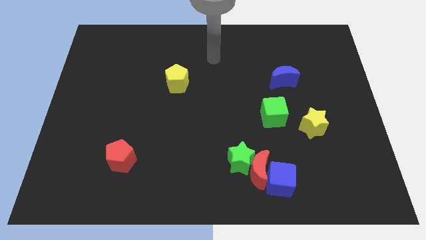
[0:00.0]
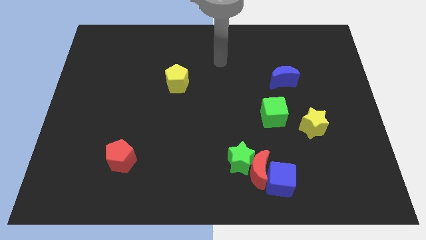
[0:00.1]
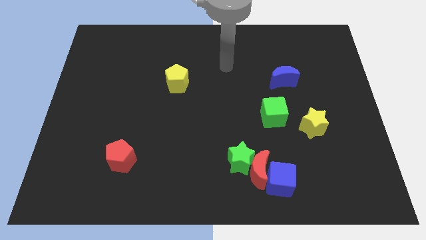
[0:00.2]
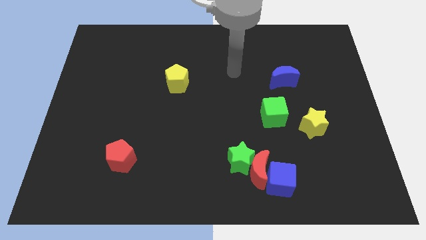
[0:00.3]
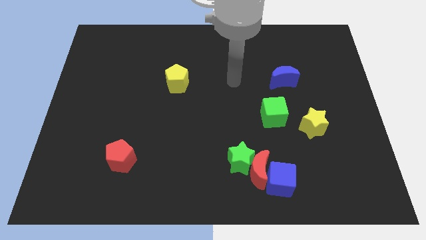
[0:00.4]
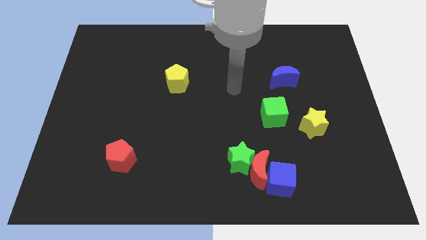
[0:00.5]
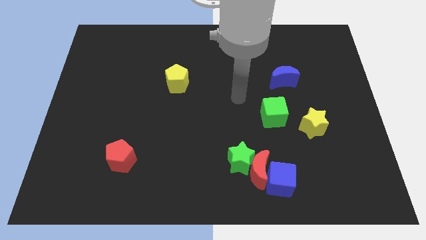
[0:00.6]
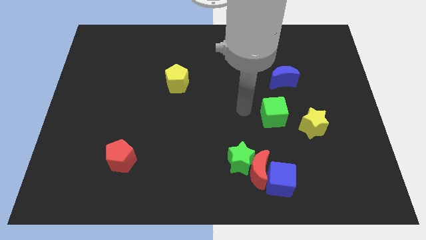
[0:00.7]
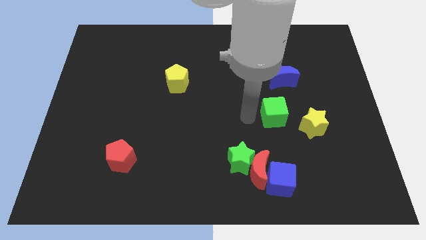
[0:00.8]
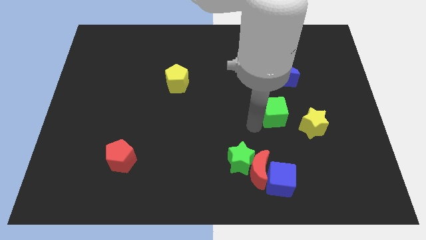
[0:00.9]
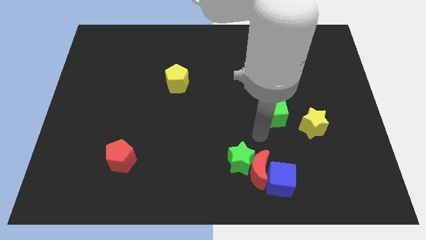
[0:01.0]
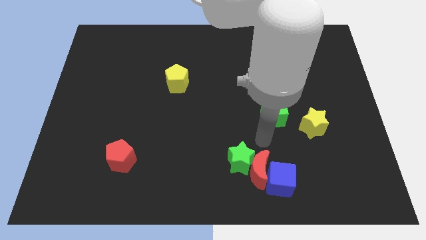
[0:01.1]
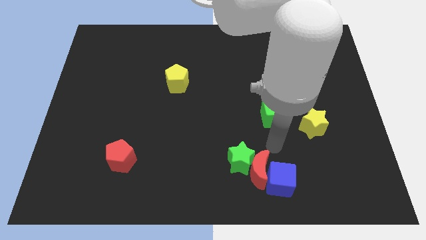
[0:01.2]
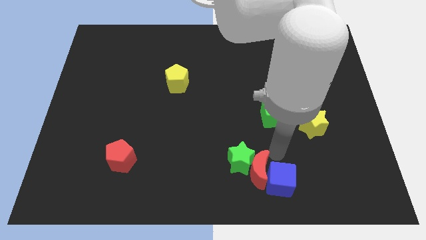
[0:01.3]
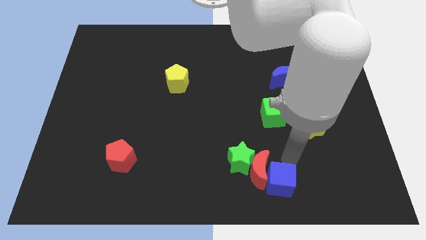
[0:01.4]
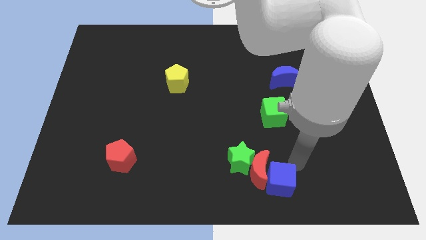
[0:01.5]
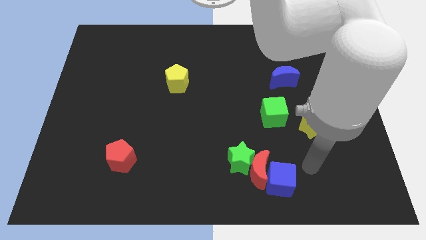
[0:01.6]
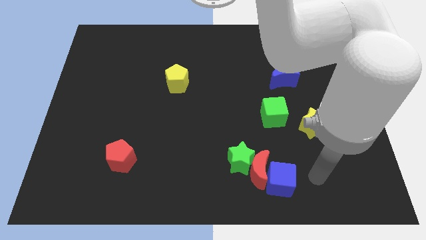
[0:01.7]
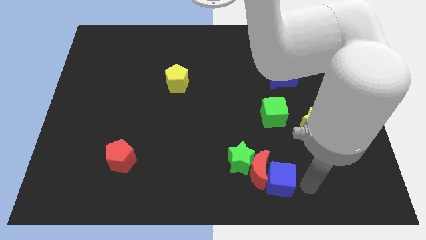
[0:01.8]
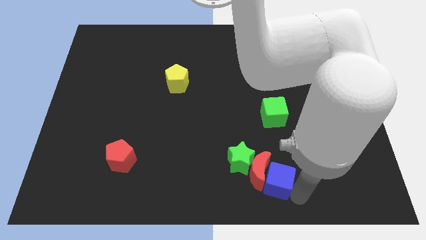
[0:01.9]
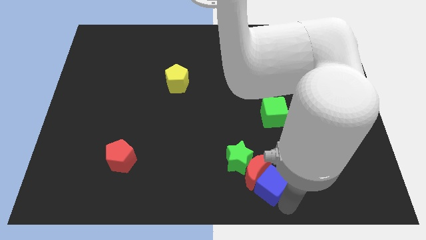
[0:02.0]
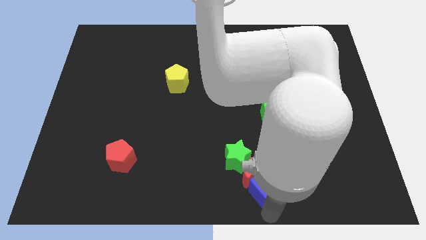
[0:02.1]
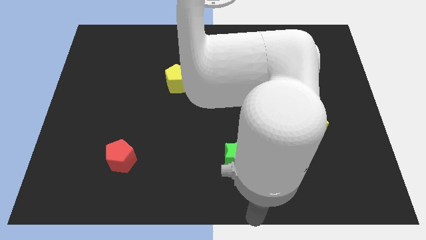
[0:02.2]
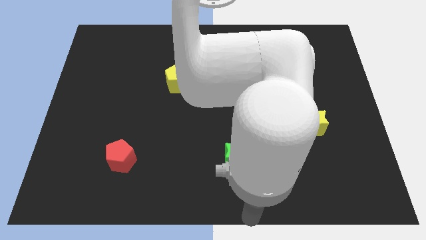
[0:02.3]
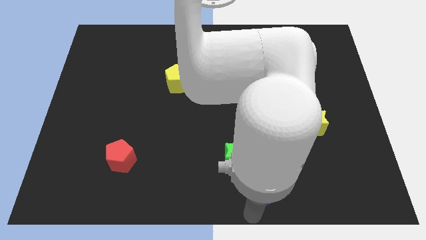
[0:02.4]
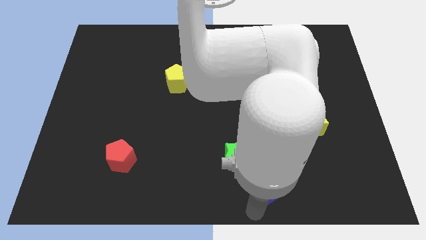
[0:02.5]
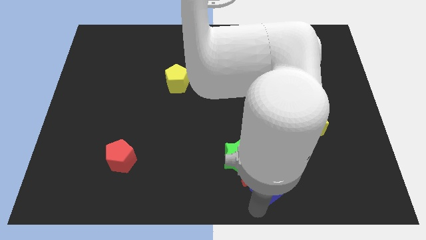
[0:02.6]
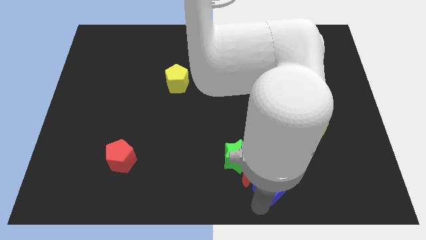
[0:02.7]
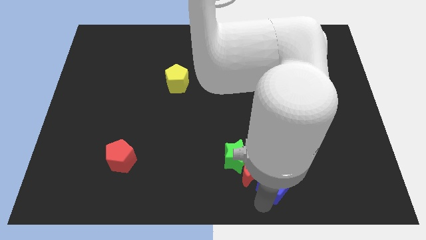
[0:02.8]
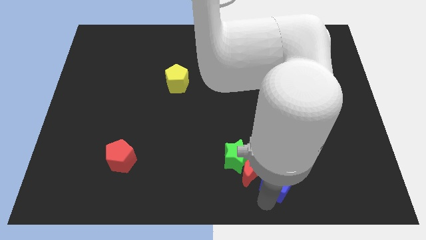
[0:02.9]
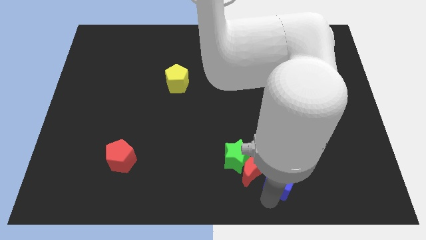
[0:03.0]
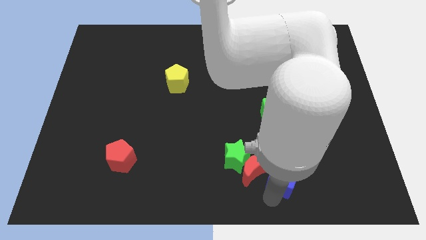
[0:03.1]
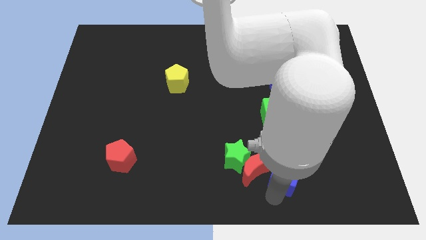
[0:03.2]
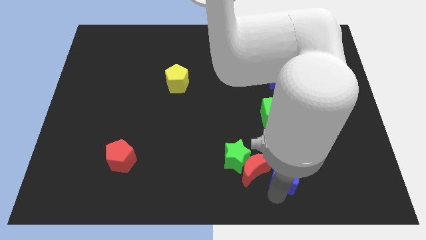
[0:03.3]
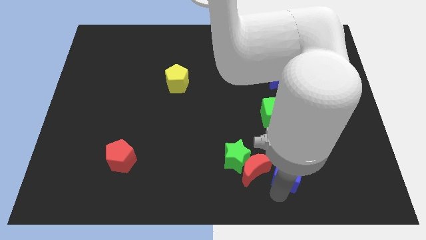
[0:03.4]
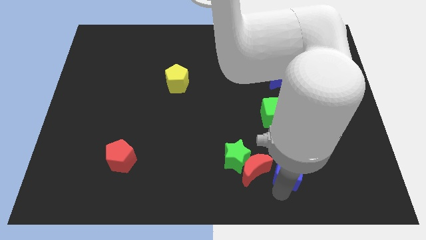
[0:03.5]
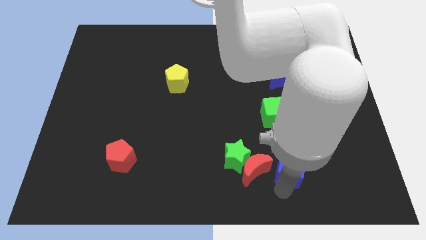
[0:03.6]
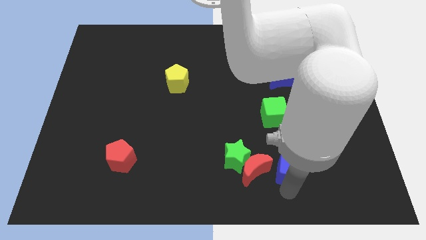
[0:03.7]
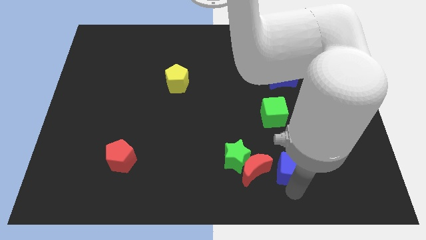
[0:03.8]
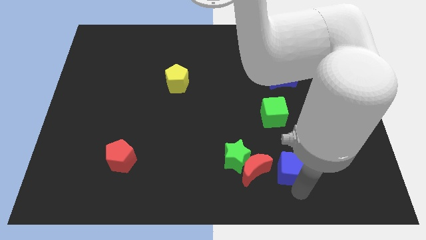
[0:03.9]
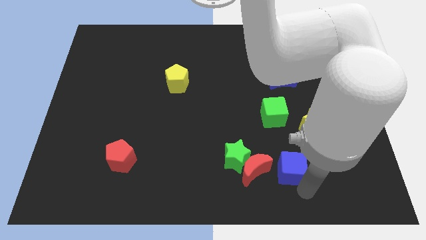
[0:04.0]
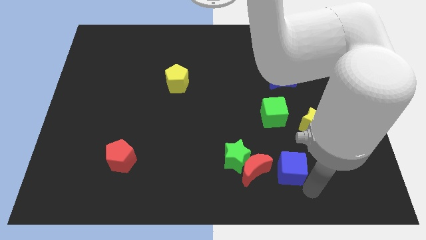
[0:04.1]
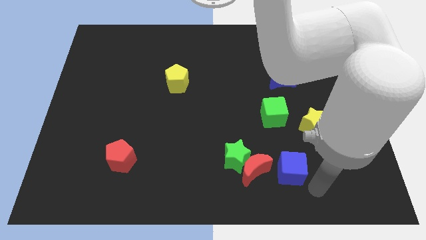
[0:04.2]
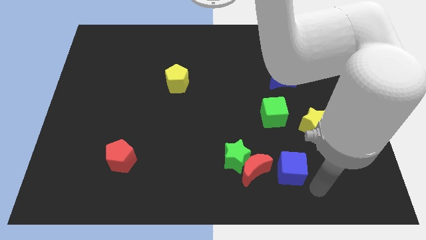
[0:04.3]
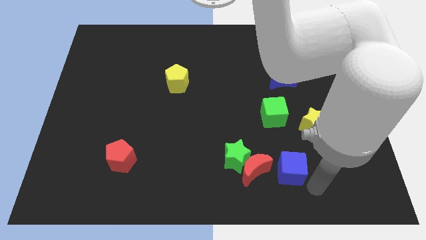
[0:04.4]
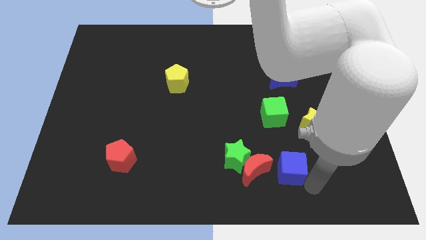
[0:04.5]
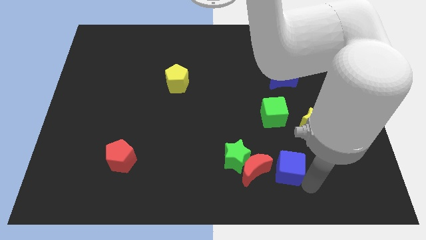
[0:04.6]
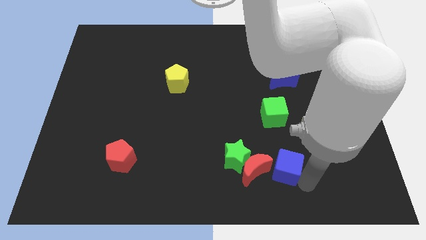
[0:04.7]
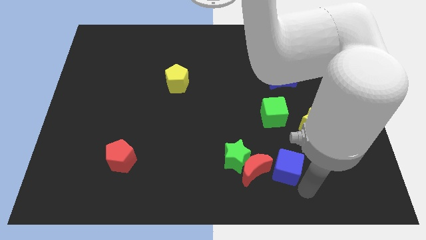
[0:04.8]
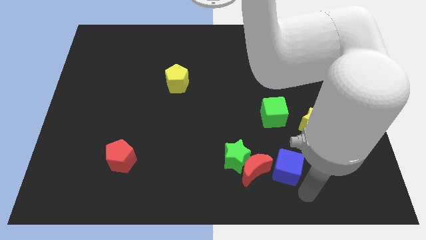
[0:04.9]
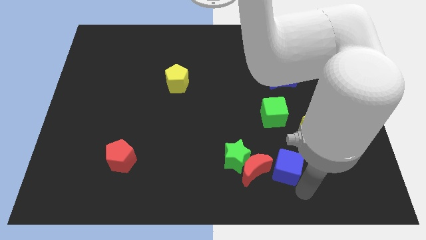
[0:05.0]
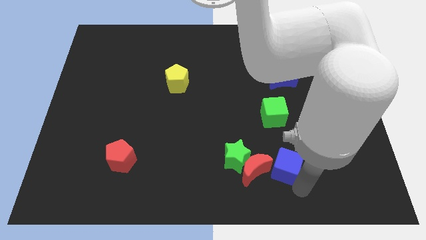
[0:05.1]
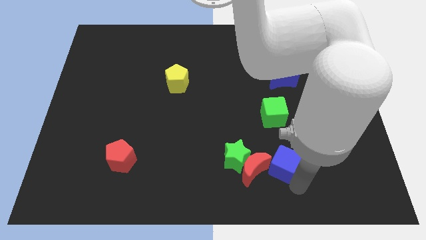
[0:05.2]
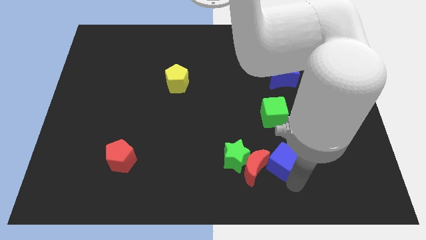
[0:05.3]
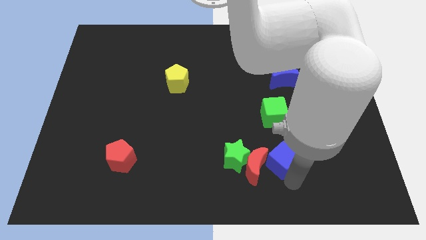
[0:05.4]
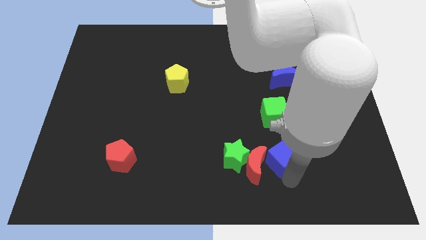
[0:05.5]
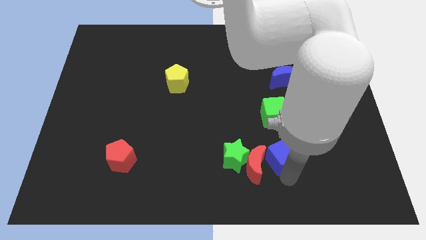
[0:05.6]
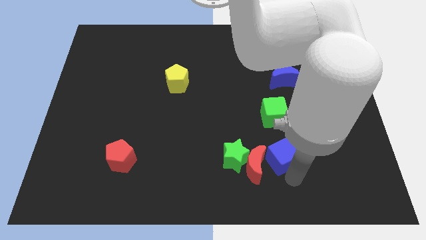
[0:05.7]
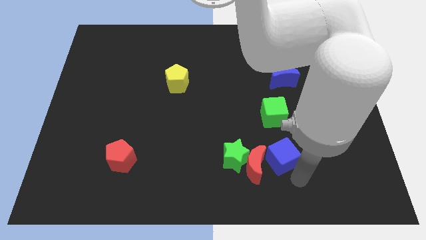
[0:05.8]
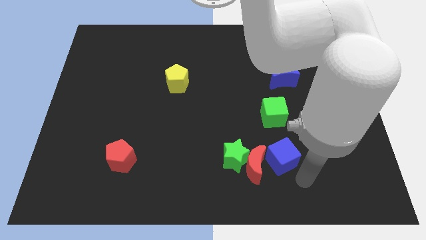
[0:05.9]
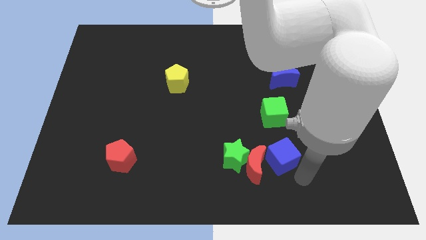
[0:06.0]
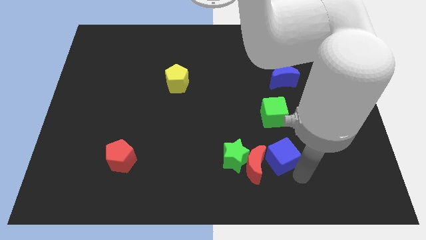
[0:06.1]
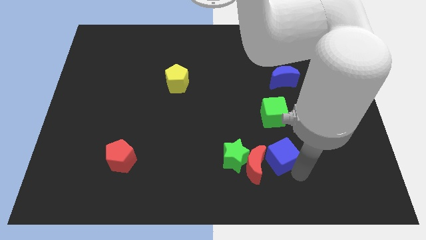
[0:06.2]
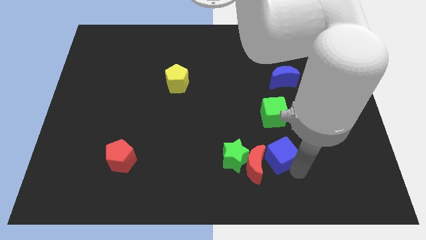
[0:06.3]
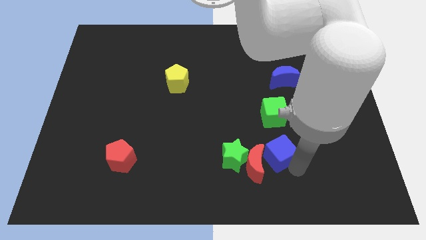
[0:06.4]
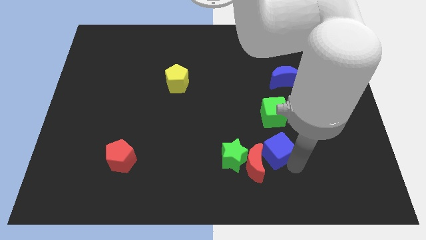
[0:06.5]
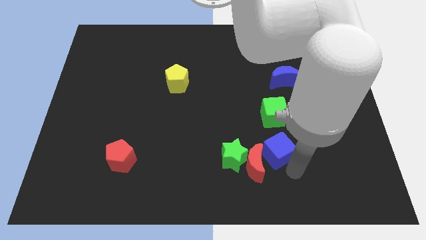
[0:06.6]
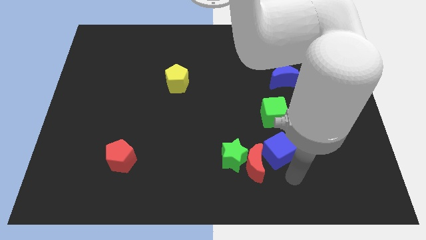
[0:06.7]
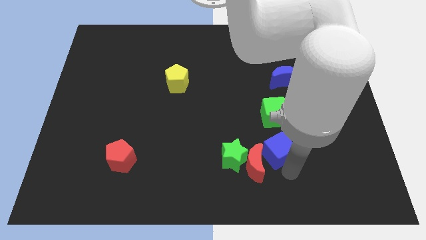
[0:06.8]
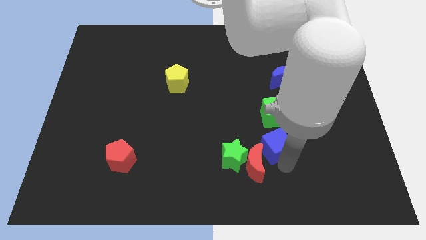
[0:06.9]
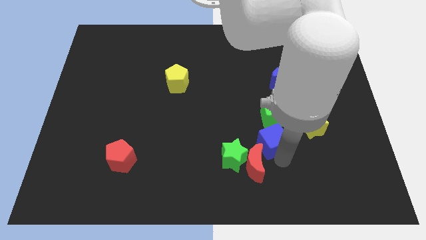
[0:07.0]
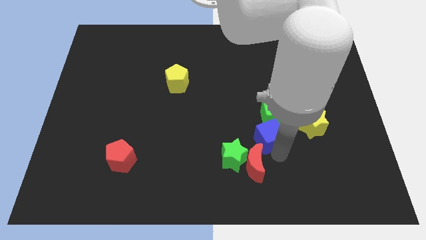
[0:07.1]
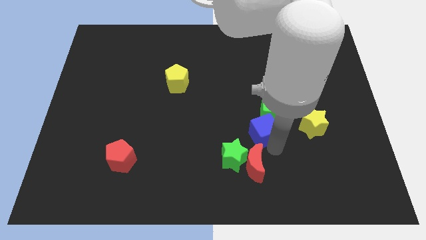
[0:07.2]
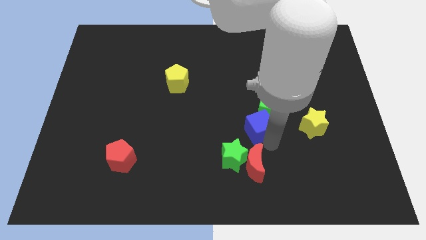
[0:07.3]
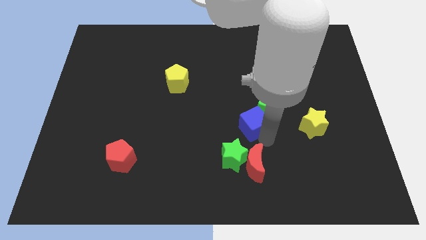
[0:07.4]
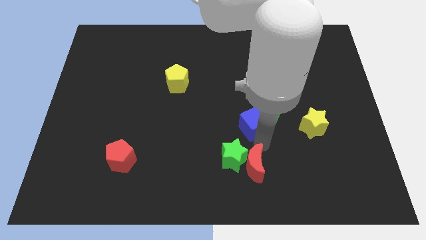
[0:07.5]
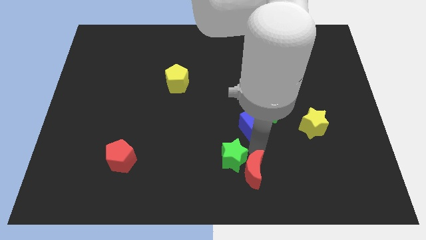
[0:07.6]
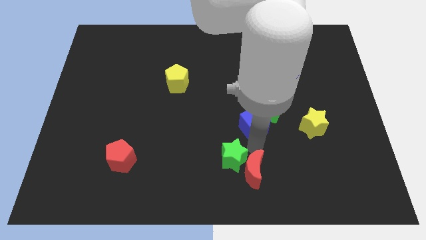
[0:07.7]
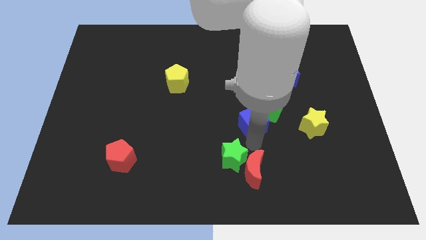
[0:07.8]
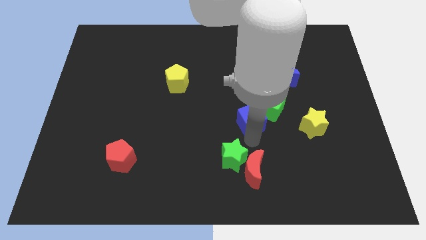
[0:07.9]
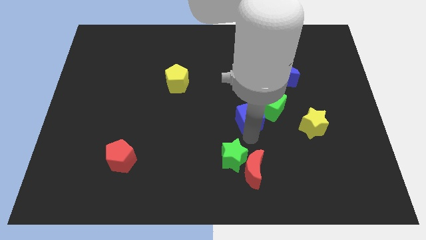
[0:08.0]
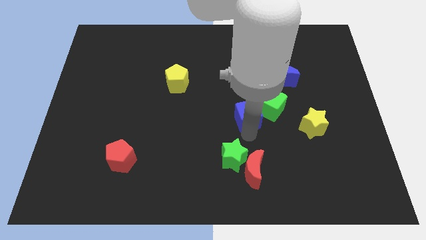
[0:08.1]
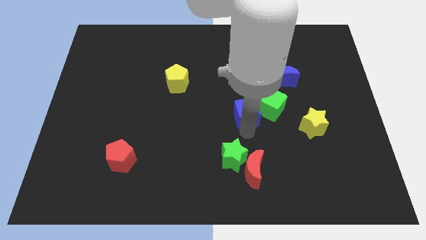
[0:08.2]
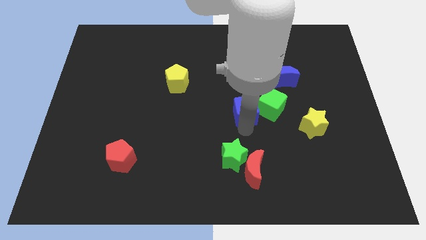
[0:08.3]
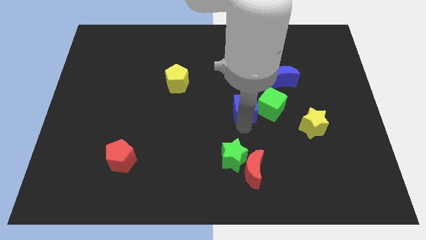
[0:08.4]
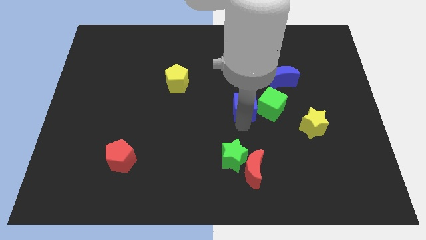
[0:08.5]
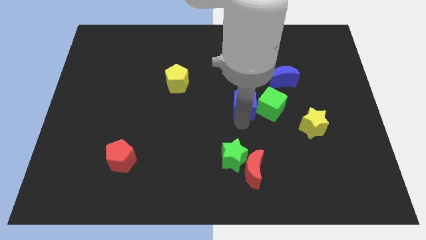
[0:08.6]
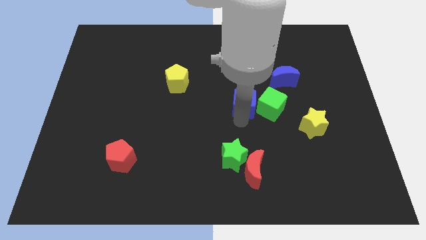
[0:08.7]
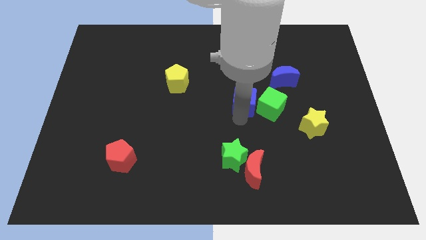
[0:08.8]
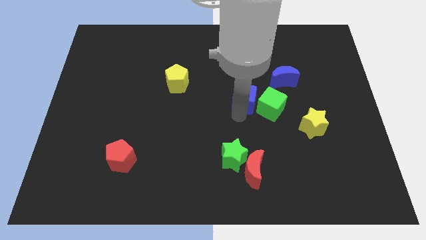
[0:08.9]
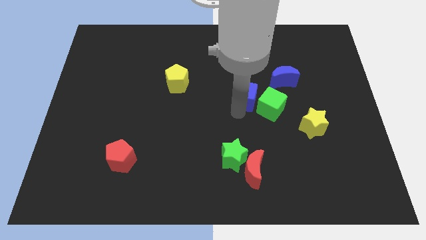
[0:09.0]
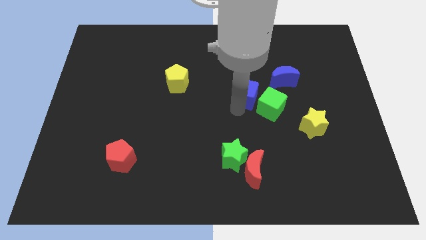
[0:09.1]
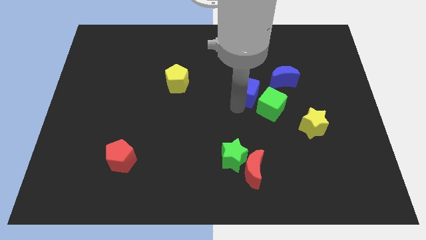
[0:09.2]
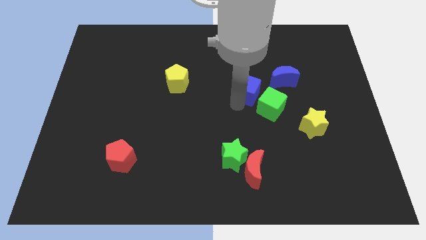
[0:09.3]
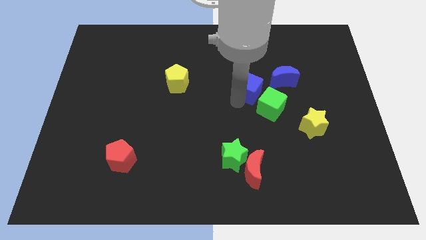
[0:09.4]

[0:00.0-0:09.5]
push the blue cube above the green cube
